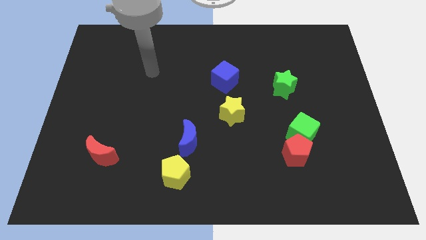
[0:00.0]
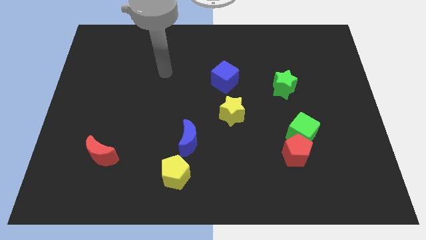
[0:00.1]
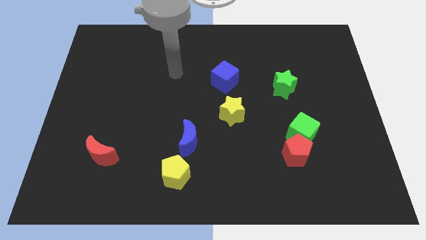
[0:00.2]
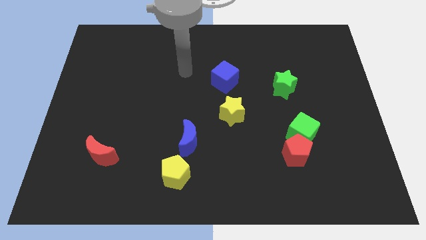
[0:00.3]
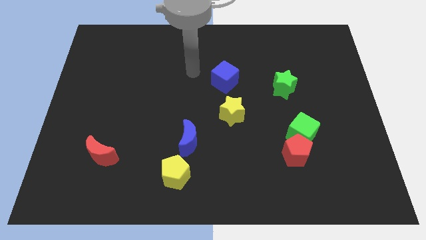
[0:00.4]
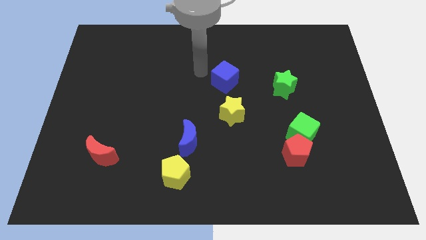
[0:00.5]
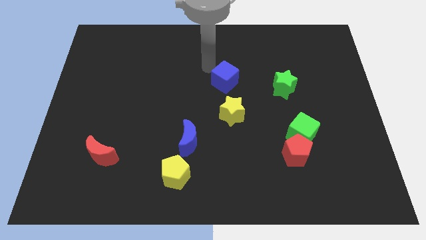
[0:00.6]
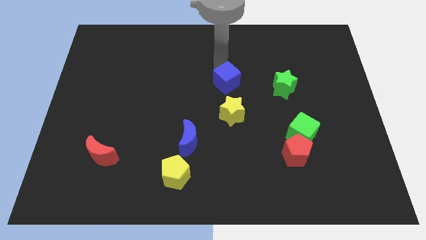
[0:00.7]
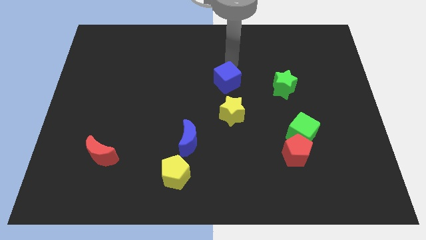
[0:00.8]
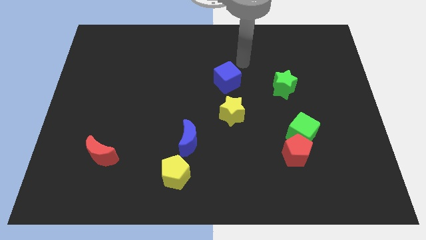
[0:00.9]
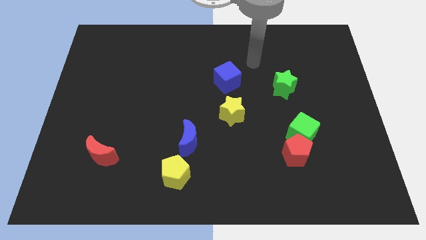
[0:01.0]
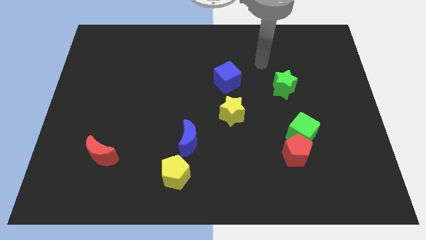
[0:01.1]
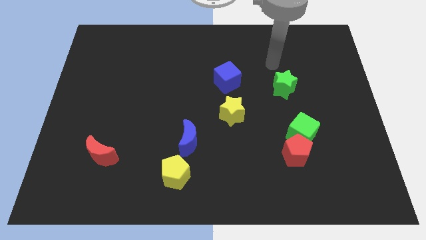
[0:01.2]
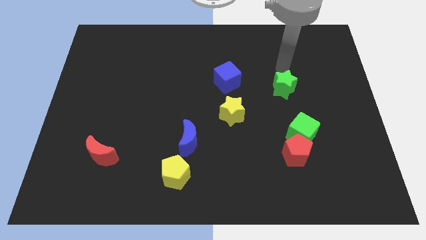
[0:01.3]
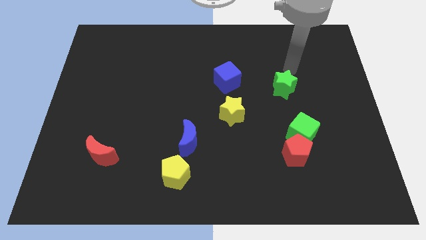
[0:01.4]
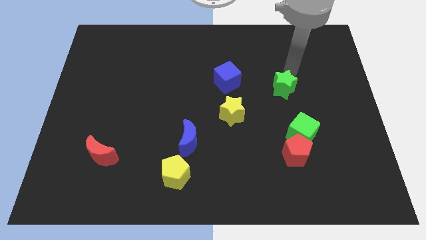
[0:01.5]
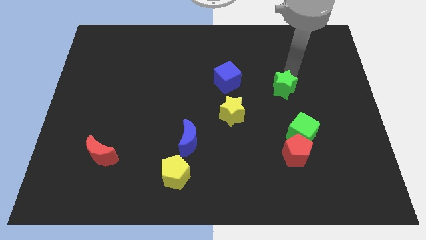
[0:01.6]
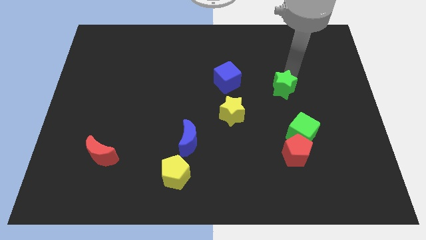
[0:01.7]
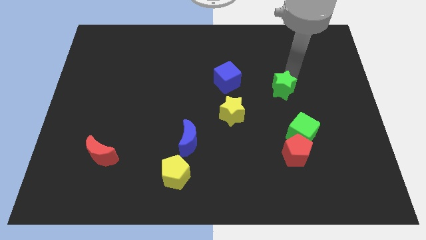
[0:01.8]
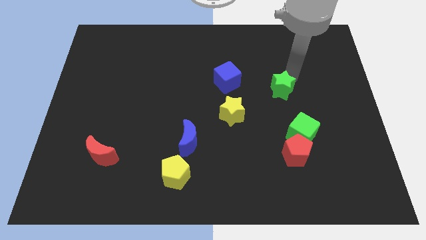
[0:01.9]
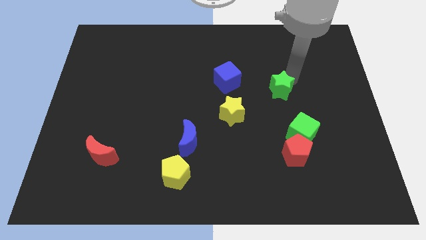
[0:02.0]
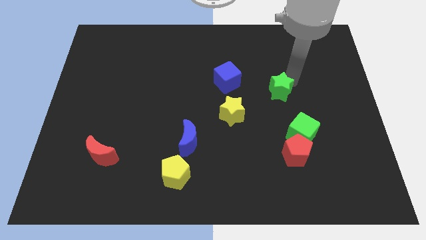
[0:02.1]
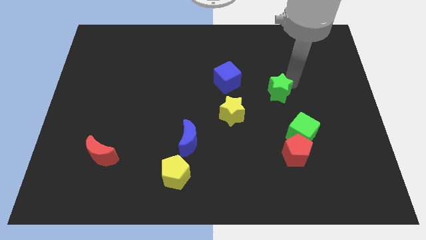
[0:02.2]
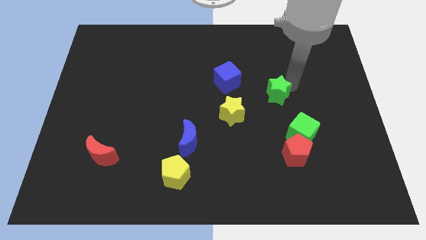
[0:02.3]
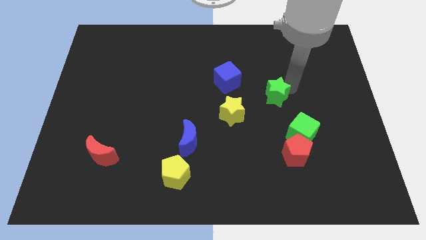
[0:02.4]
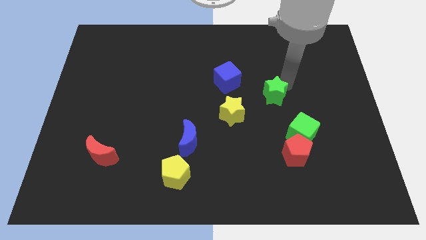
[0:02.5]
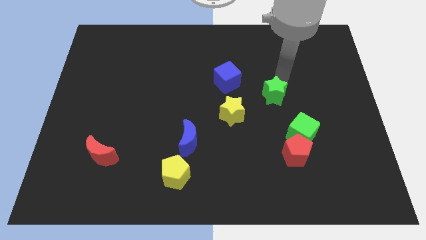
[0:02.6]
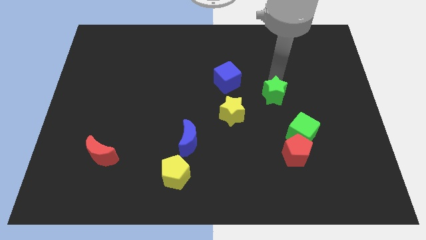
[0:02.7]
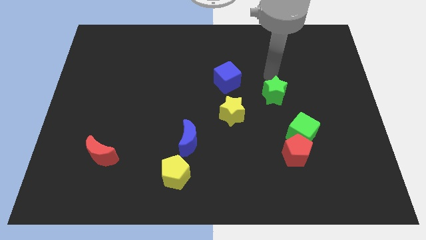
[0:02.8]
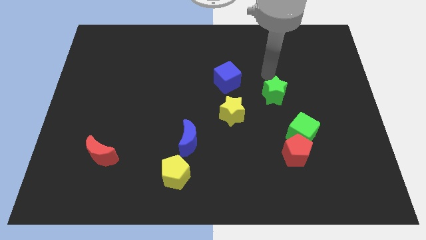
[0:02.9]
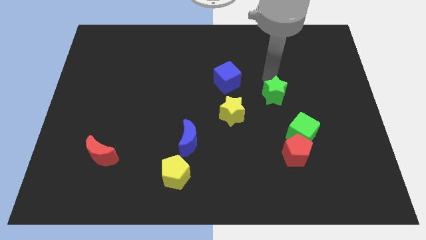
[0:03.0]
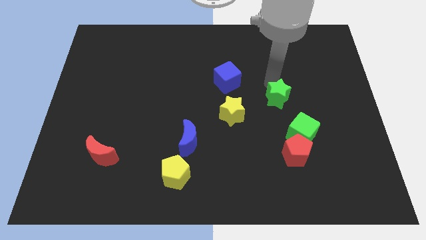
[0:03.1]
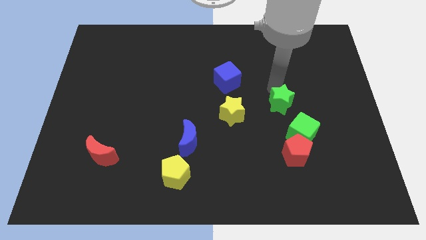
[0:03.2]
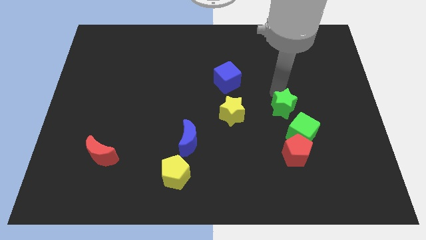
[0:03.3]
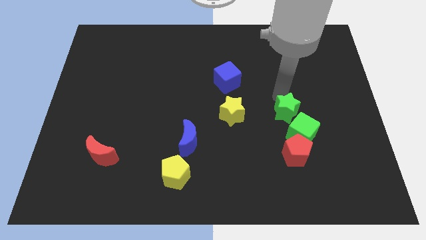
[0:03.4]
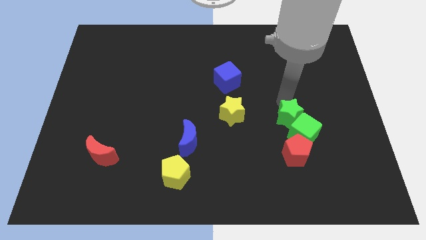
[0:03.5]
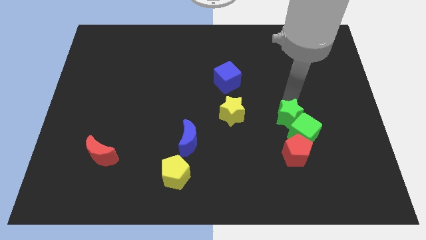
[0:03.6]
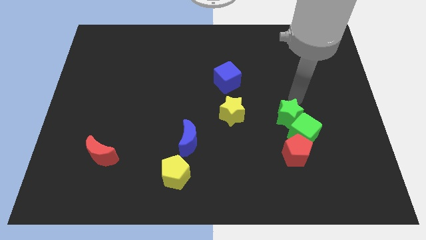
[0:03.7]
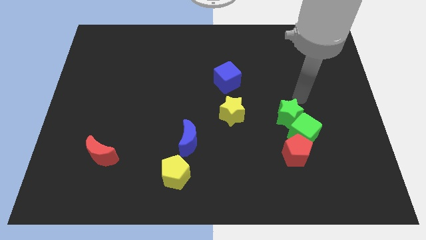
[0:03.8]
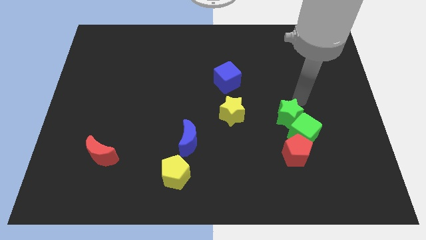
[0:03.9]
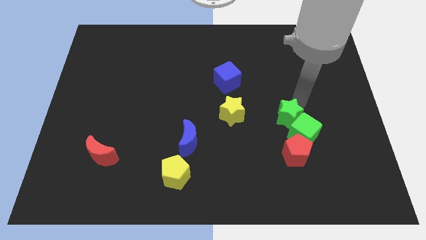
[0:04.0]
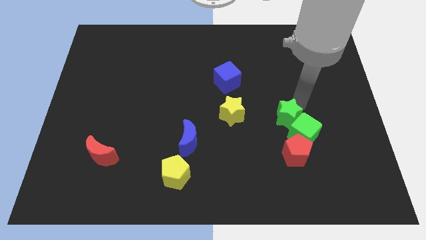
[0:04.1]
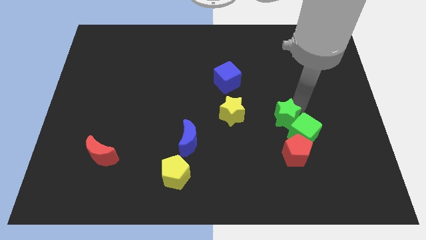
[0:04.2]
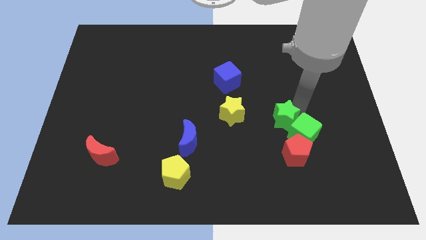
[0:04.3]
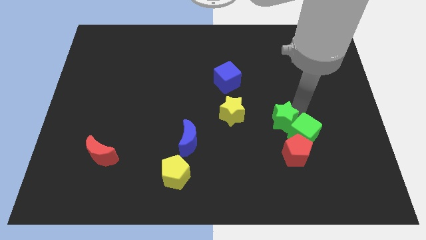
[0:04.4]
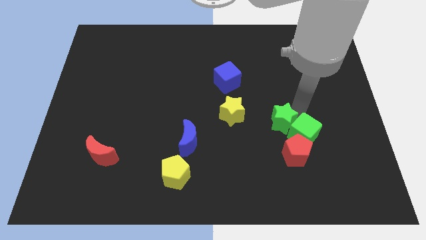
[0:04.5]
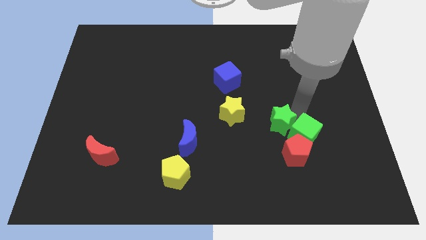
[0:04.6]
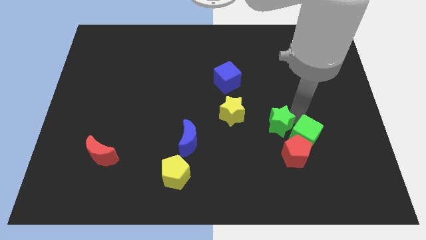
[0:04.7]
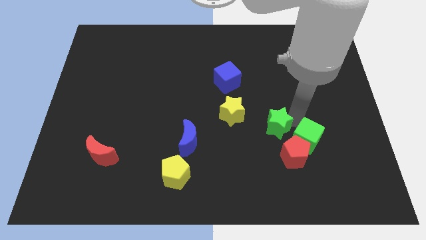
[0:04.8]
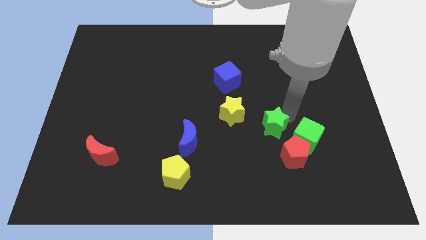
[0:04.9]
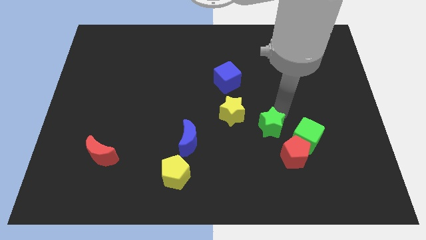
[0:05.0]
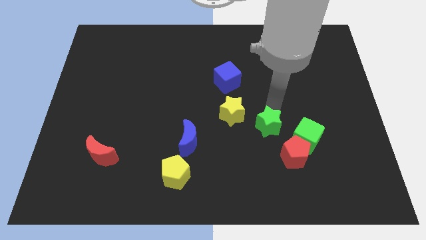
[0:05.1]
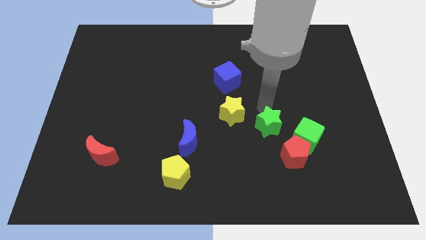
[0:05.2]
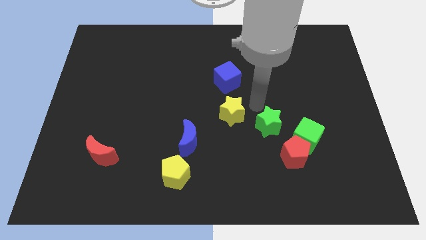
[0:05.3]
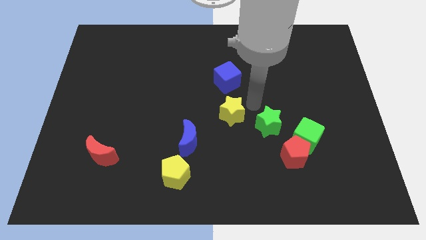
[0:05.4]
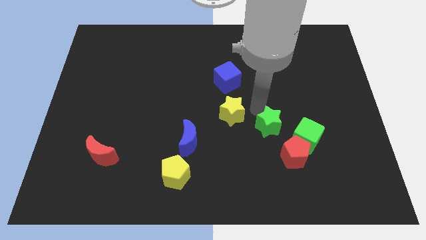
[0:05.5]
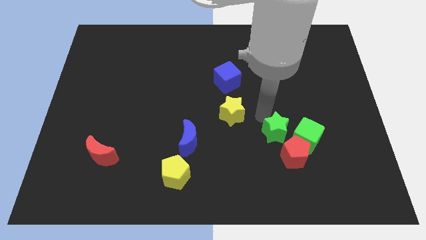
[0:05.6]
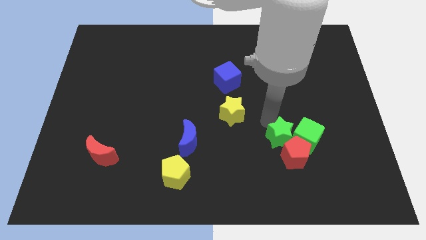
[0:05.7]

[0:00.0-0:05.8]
put the green star next to the red pentagon

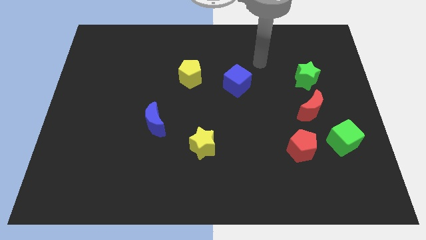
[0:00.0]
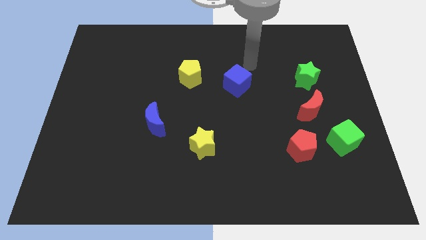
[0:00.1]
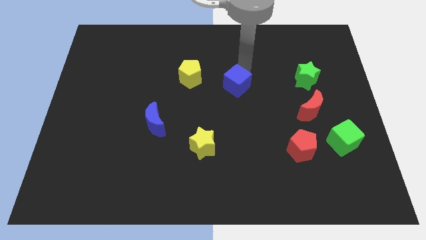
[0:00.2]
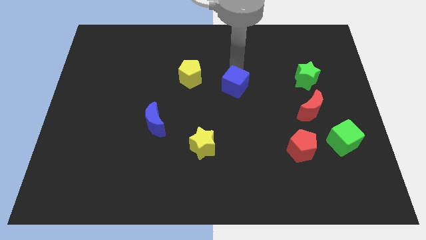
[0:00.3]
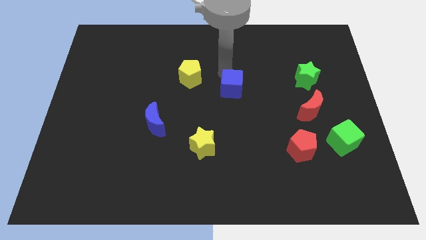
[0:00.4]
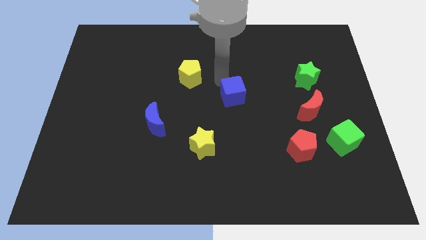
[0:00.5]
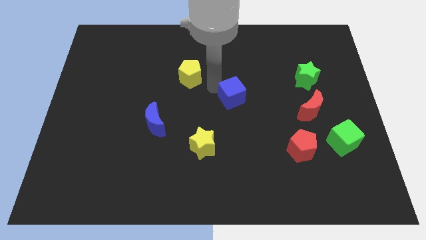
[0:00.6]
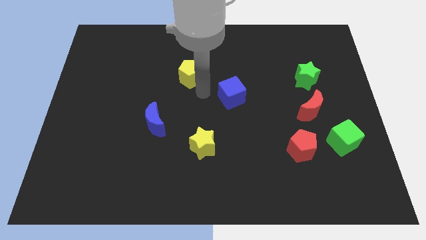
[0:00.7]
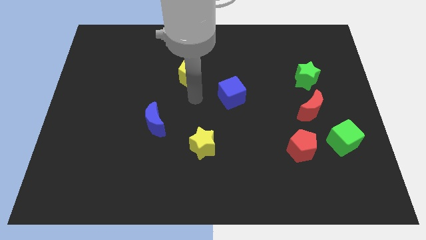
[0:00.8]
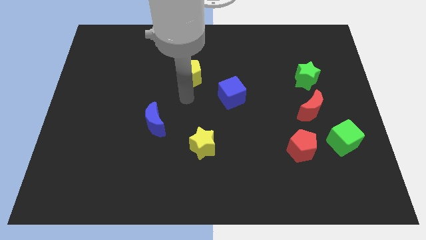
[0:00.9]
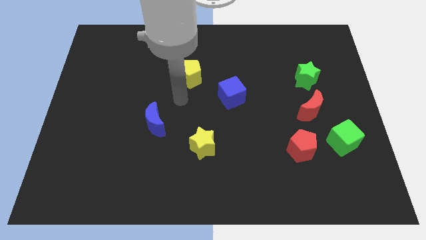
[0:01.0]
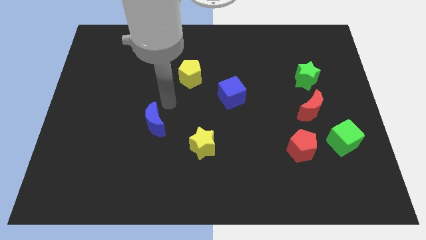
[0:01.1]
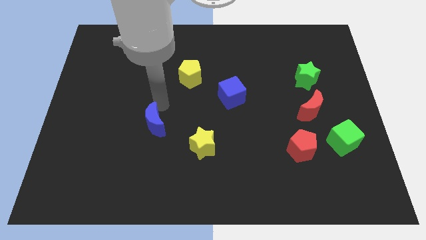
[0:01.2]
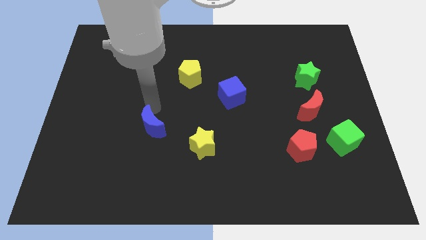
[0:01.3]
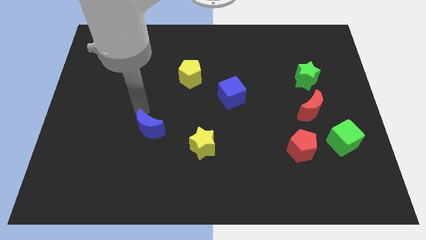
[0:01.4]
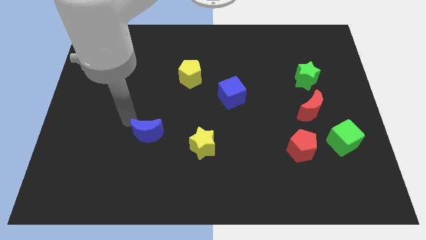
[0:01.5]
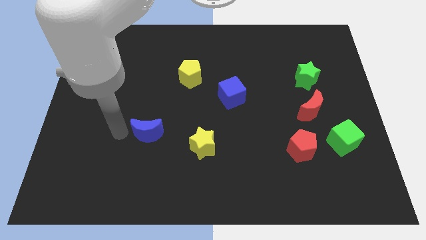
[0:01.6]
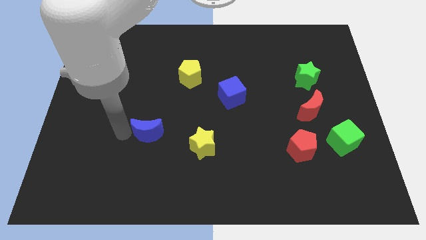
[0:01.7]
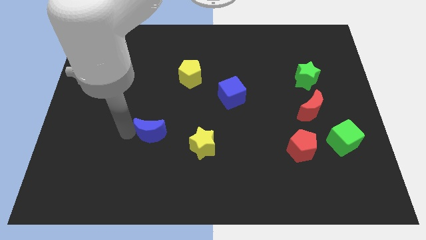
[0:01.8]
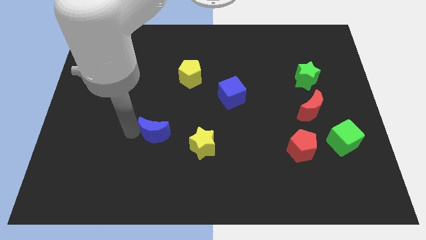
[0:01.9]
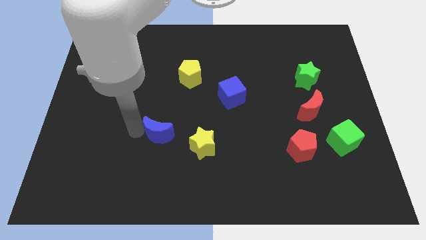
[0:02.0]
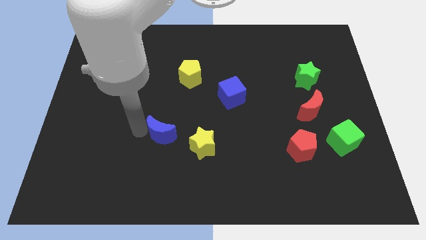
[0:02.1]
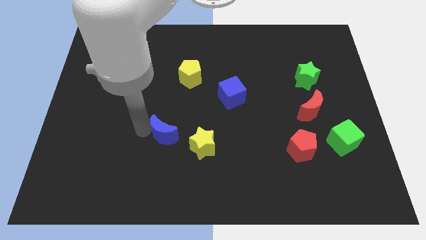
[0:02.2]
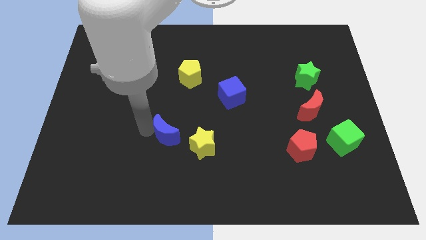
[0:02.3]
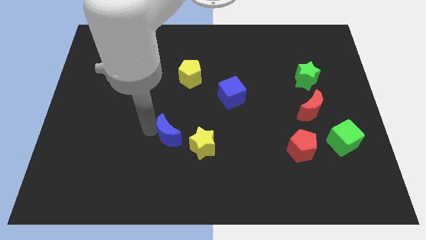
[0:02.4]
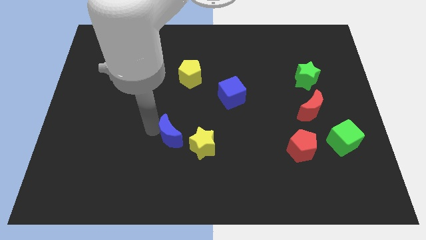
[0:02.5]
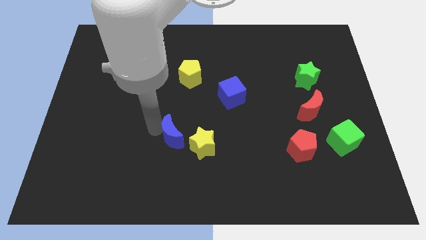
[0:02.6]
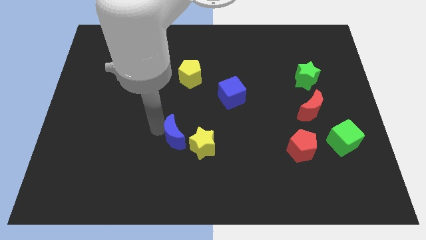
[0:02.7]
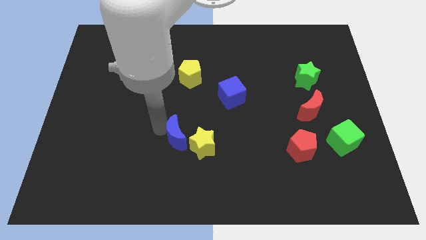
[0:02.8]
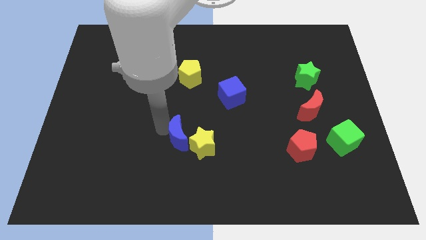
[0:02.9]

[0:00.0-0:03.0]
move the blue moon close to the yellow star
